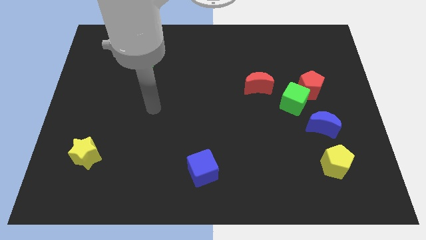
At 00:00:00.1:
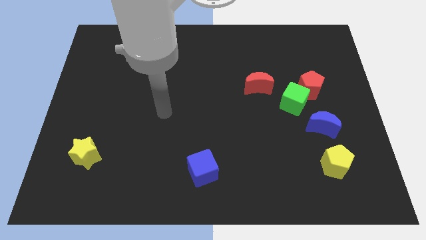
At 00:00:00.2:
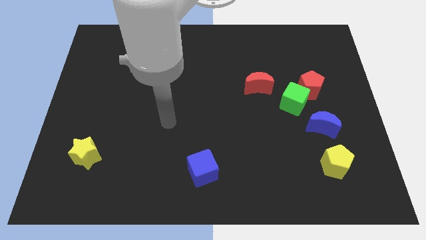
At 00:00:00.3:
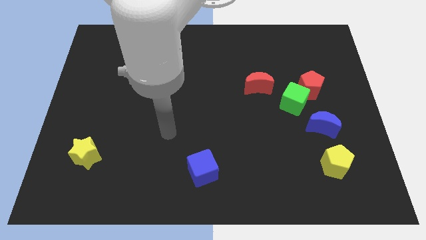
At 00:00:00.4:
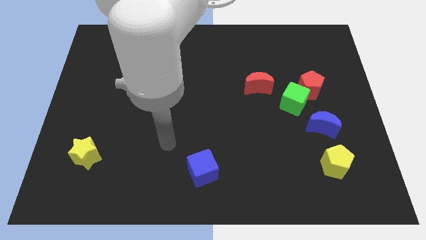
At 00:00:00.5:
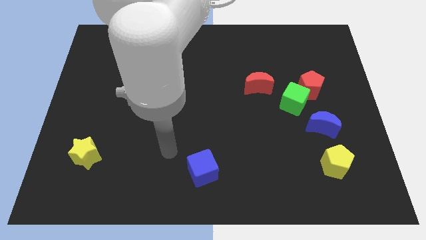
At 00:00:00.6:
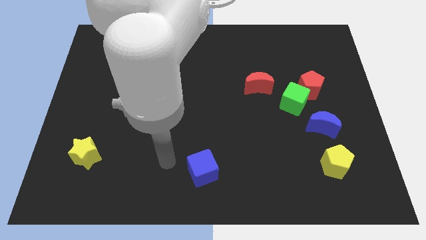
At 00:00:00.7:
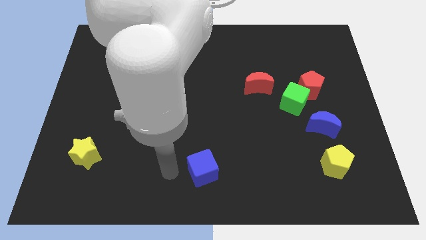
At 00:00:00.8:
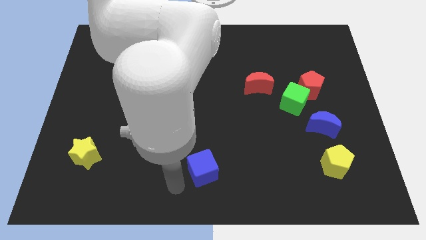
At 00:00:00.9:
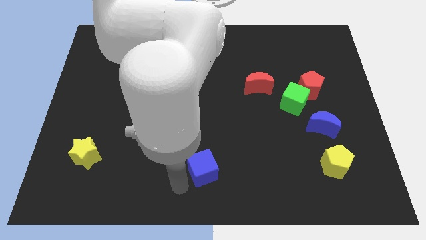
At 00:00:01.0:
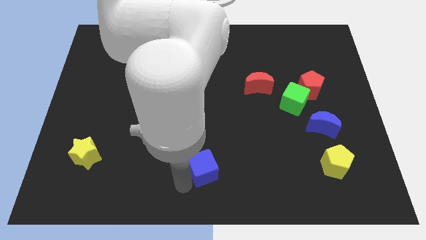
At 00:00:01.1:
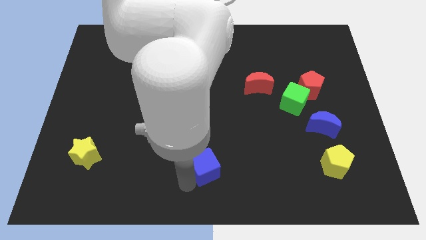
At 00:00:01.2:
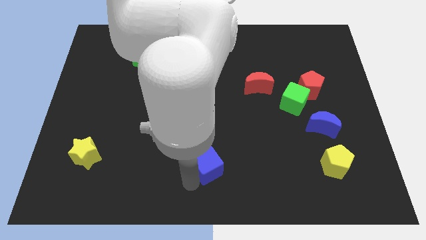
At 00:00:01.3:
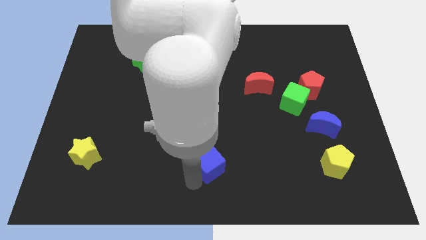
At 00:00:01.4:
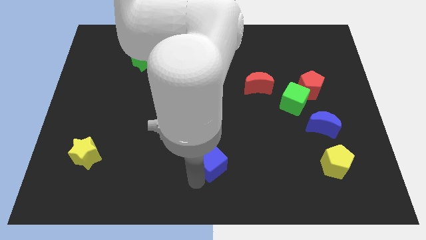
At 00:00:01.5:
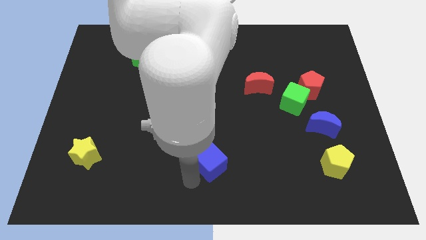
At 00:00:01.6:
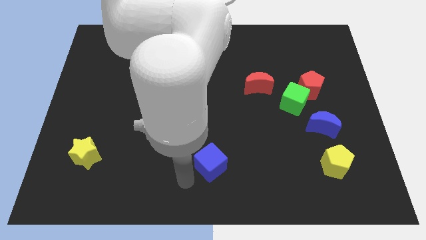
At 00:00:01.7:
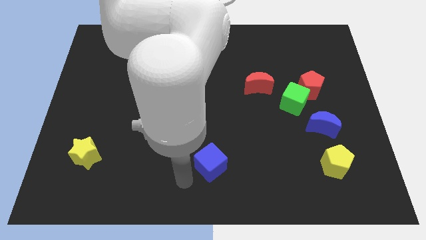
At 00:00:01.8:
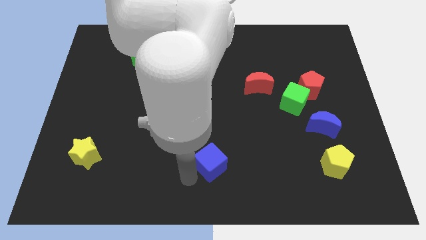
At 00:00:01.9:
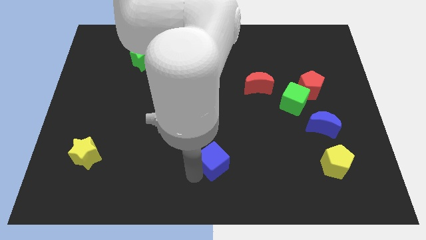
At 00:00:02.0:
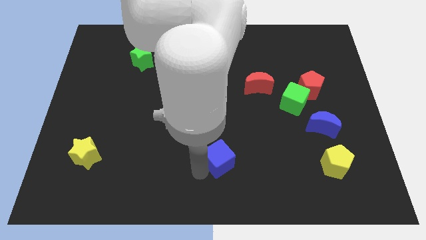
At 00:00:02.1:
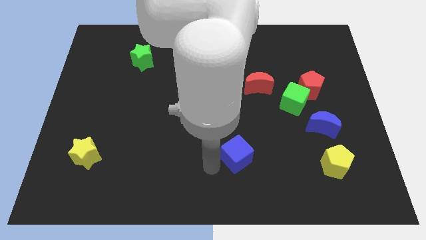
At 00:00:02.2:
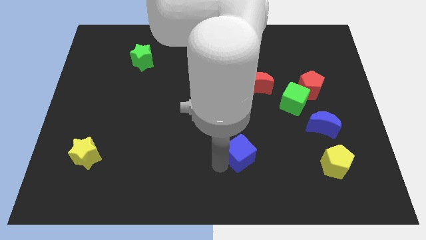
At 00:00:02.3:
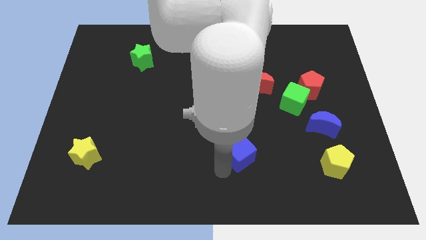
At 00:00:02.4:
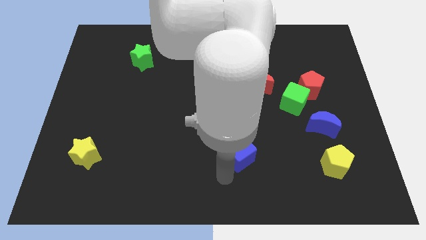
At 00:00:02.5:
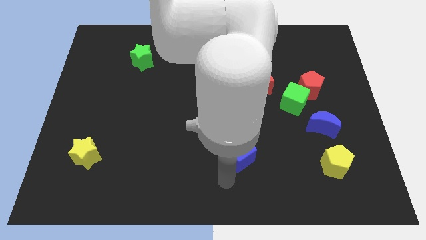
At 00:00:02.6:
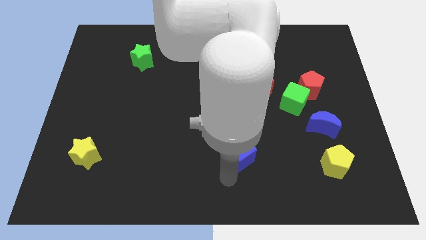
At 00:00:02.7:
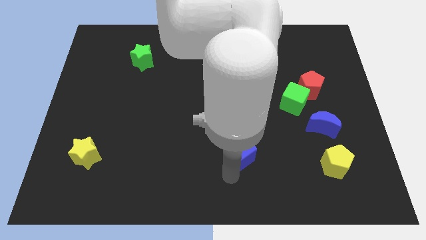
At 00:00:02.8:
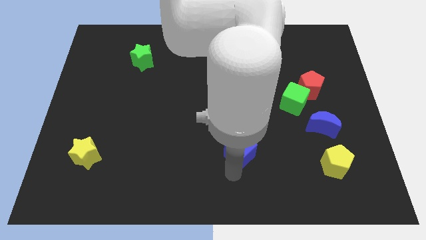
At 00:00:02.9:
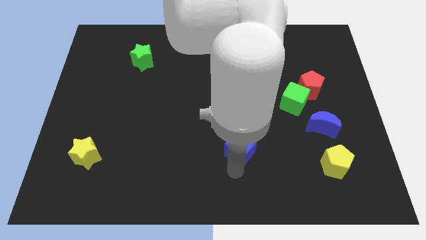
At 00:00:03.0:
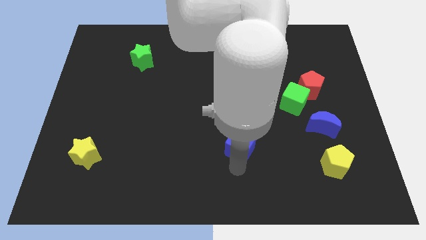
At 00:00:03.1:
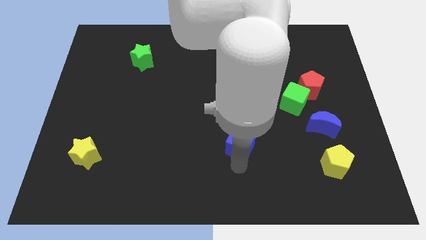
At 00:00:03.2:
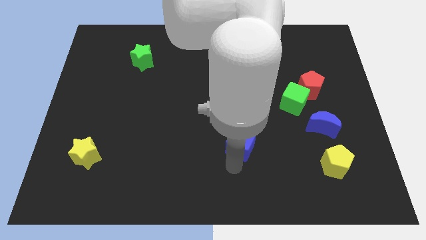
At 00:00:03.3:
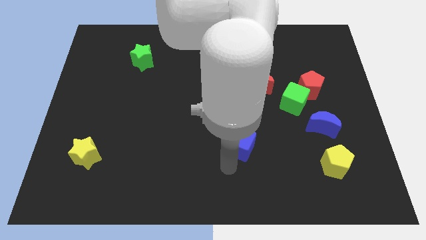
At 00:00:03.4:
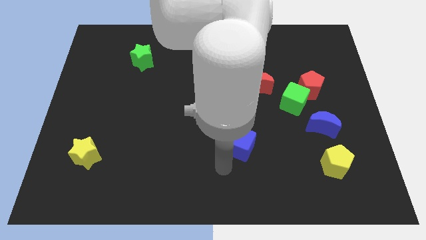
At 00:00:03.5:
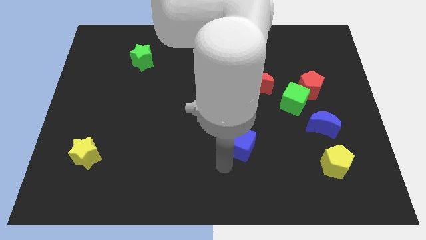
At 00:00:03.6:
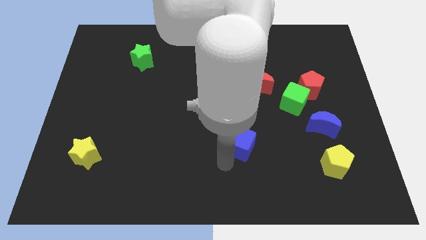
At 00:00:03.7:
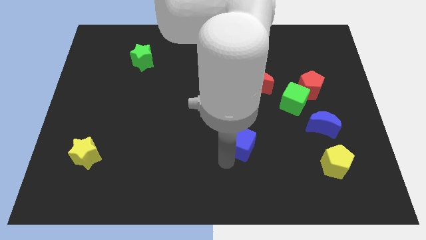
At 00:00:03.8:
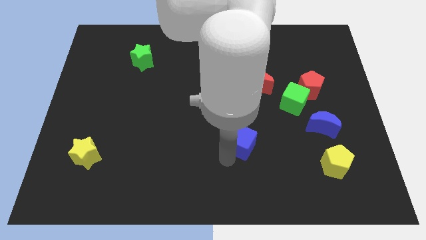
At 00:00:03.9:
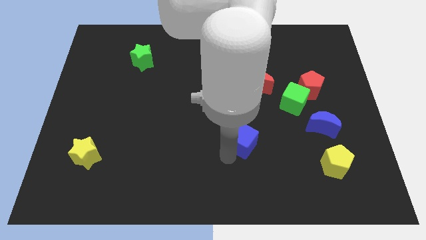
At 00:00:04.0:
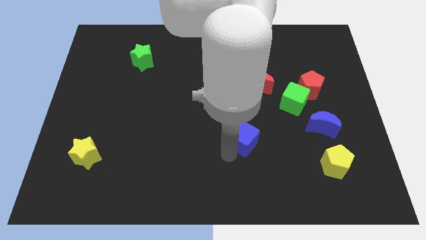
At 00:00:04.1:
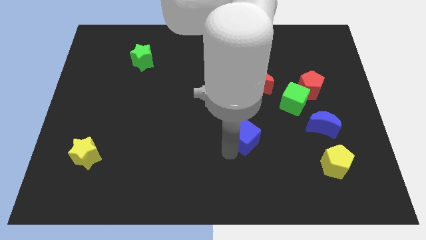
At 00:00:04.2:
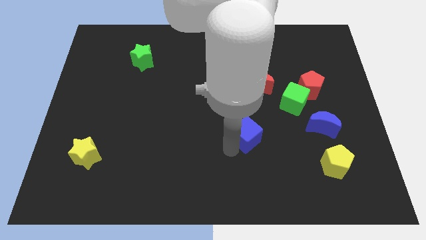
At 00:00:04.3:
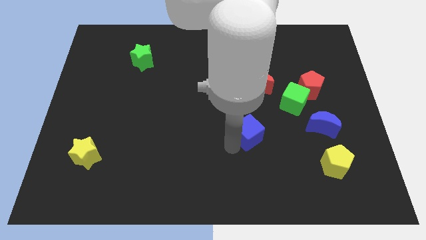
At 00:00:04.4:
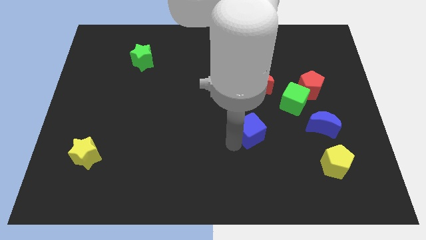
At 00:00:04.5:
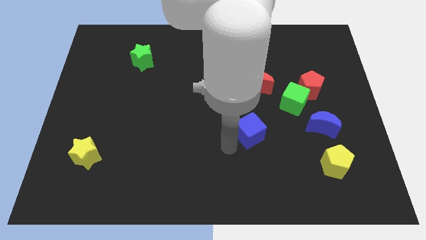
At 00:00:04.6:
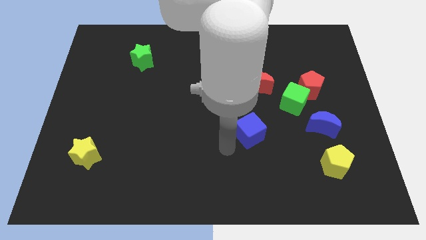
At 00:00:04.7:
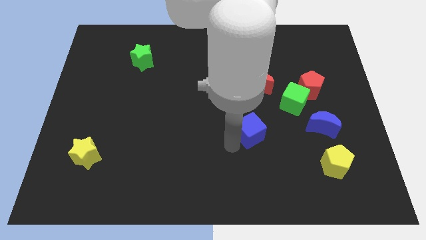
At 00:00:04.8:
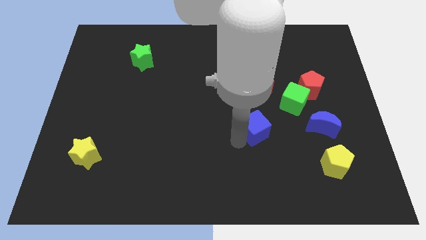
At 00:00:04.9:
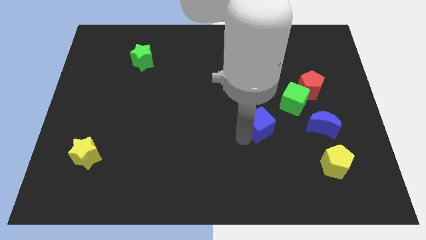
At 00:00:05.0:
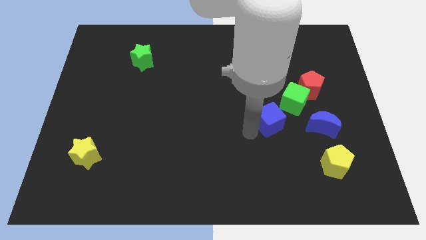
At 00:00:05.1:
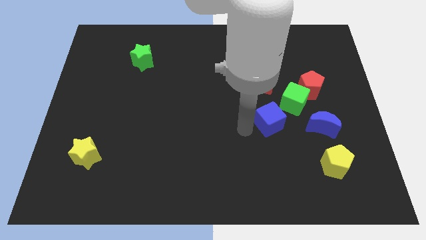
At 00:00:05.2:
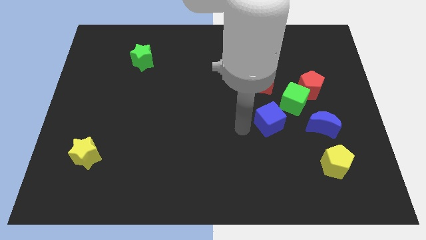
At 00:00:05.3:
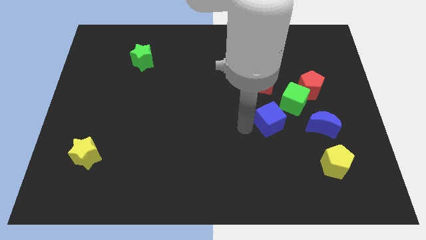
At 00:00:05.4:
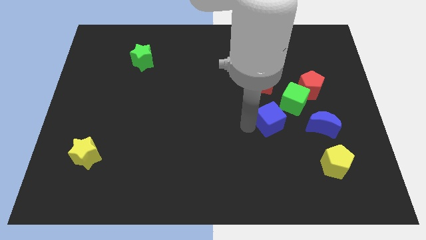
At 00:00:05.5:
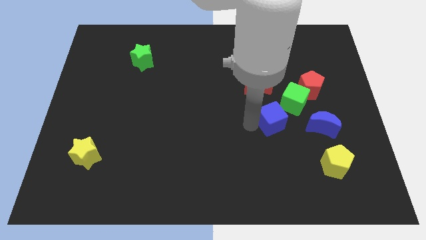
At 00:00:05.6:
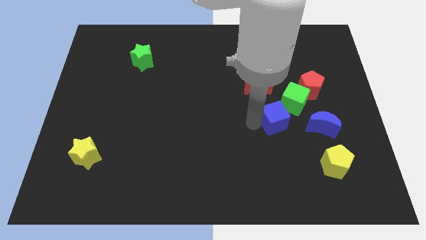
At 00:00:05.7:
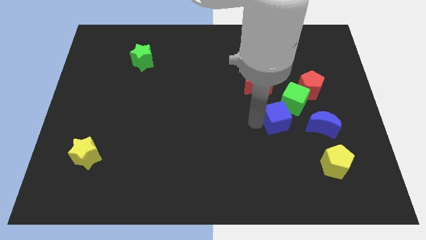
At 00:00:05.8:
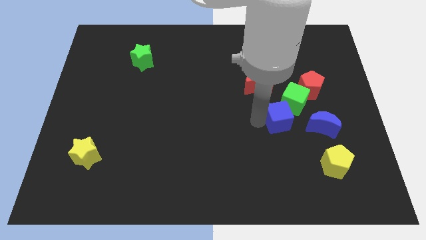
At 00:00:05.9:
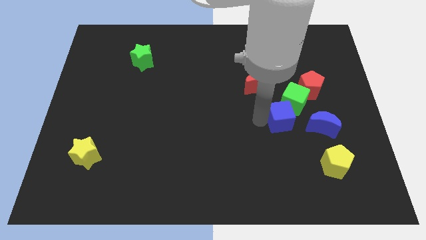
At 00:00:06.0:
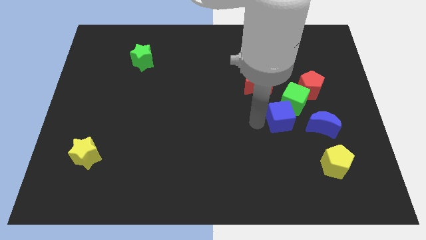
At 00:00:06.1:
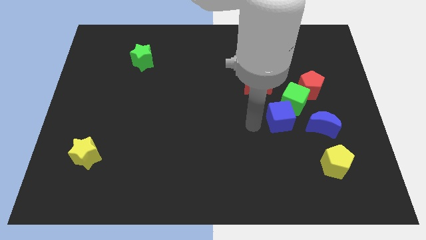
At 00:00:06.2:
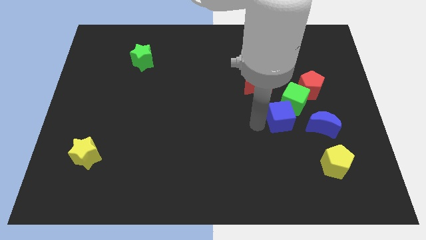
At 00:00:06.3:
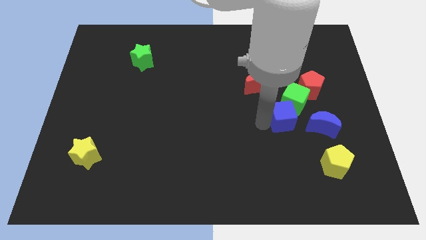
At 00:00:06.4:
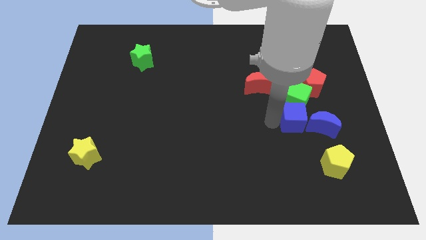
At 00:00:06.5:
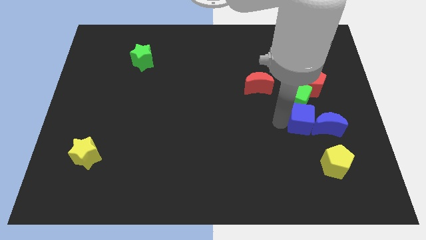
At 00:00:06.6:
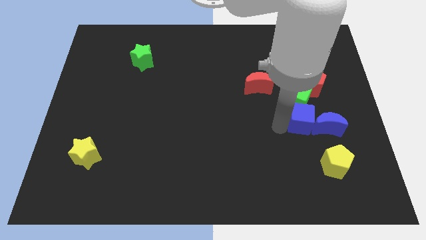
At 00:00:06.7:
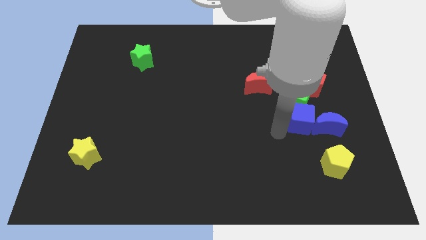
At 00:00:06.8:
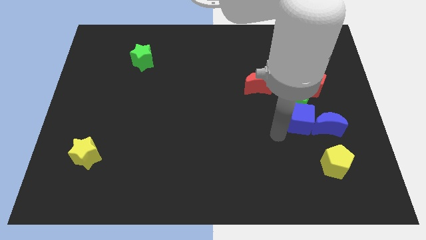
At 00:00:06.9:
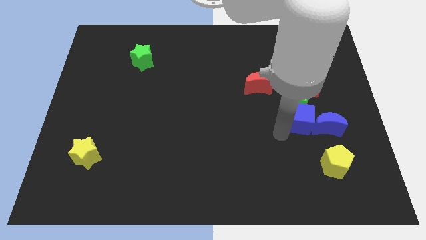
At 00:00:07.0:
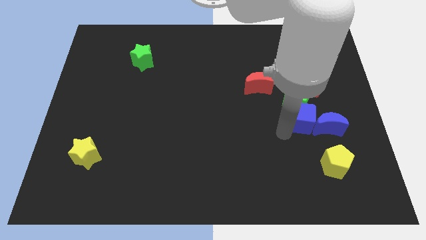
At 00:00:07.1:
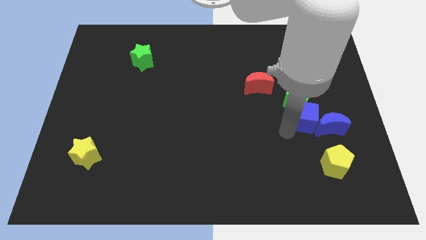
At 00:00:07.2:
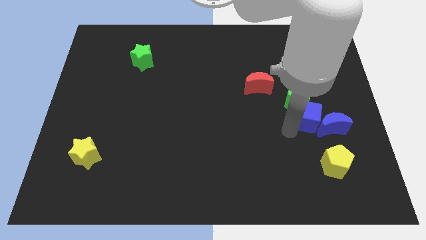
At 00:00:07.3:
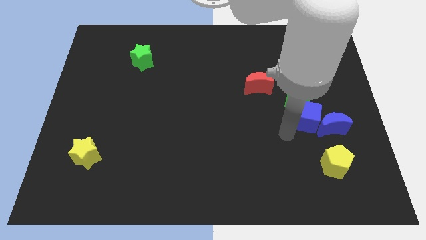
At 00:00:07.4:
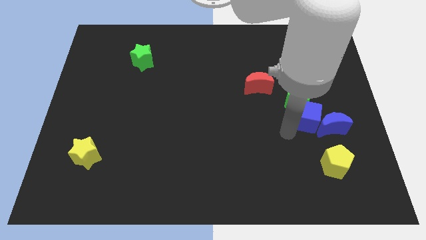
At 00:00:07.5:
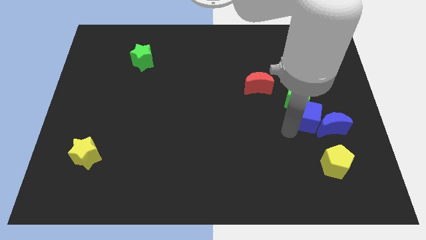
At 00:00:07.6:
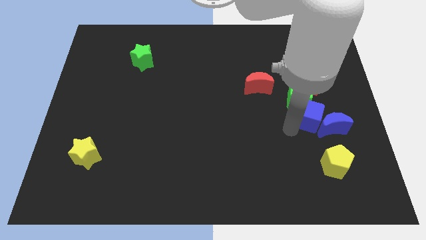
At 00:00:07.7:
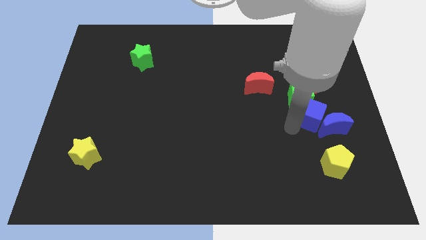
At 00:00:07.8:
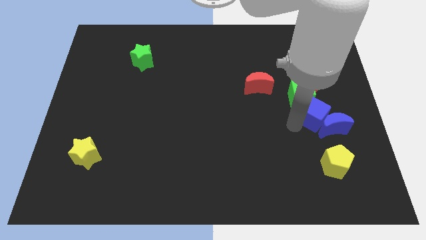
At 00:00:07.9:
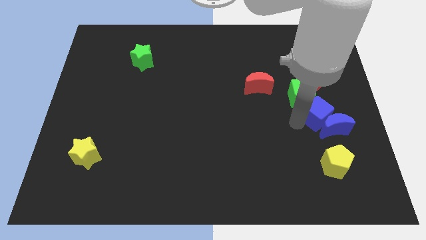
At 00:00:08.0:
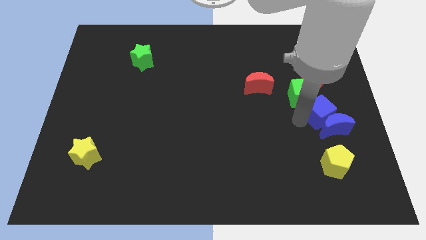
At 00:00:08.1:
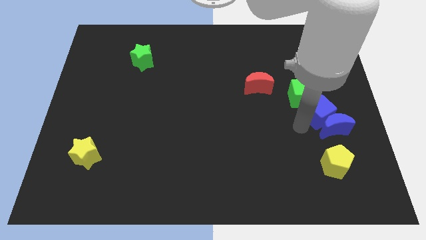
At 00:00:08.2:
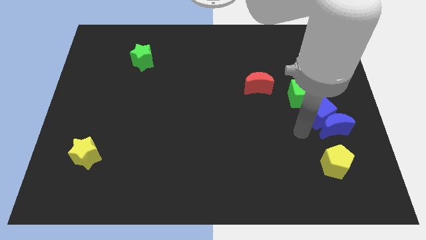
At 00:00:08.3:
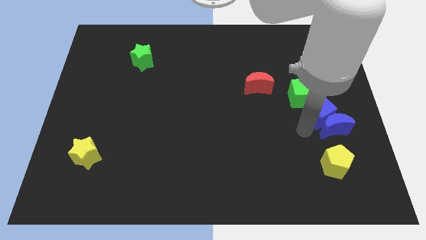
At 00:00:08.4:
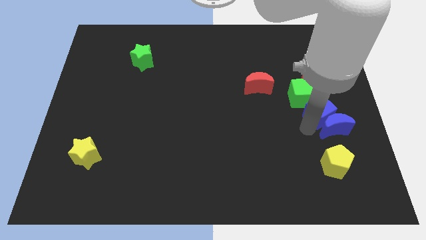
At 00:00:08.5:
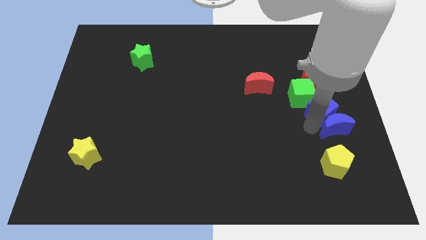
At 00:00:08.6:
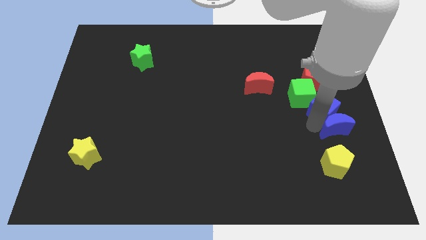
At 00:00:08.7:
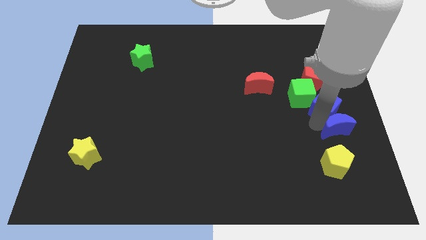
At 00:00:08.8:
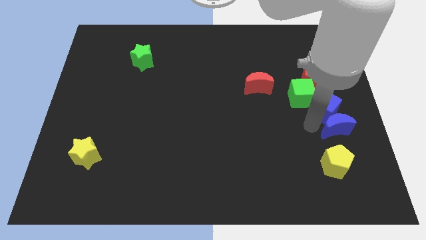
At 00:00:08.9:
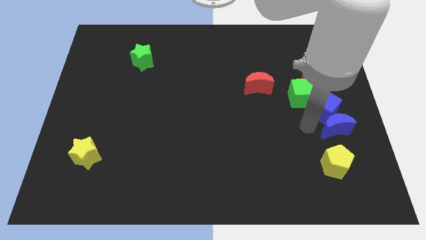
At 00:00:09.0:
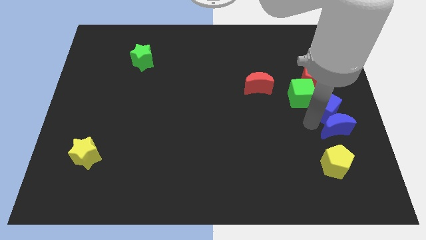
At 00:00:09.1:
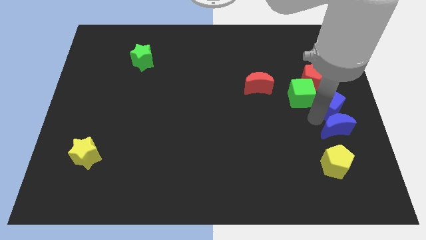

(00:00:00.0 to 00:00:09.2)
move the blue cube to the bottom right side of the red pentagon
